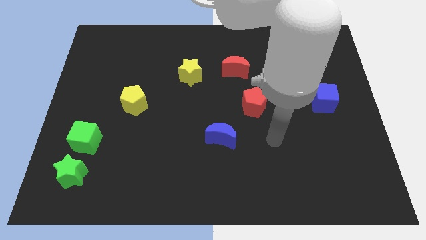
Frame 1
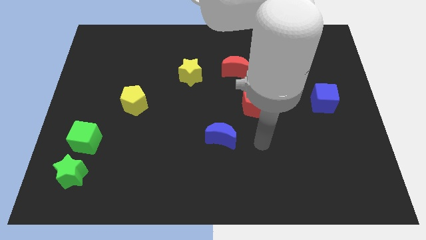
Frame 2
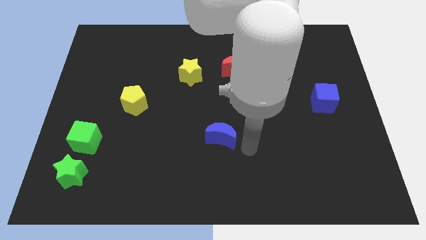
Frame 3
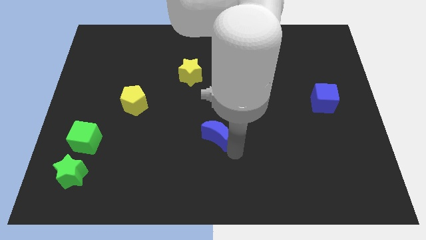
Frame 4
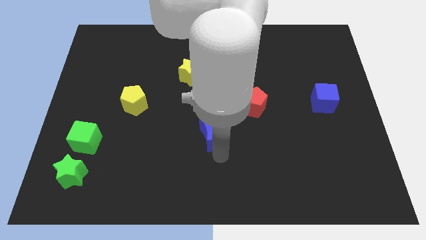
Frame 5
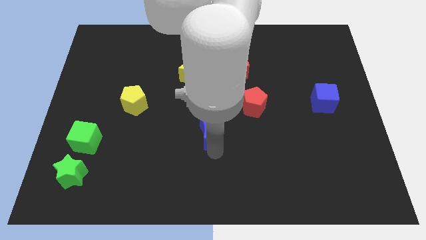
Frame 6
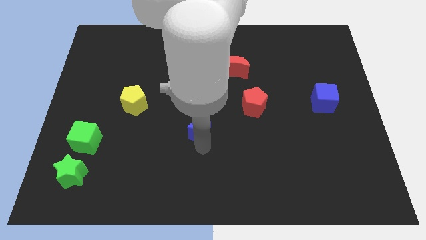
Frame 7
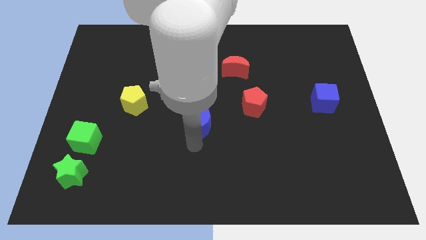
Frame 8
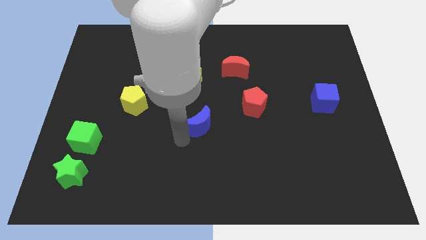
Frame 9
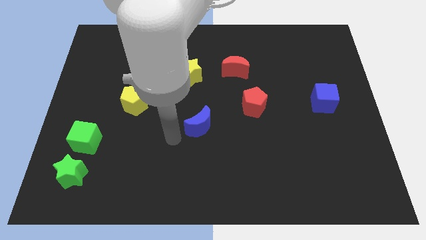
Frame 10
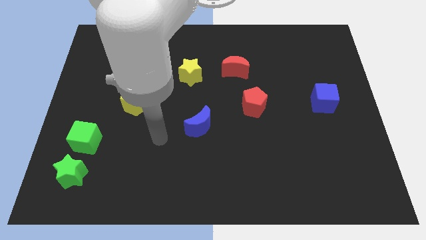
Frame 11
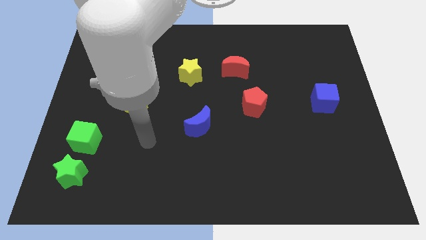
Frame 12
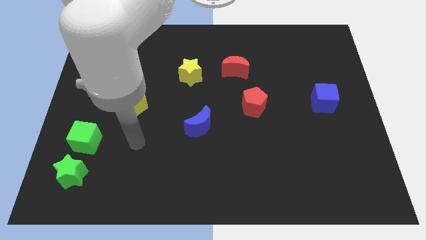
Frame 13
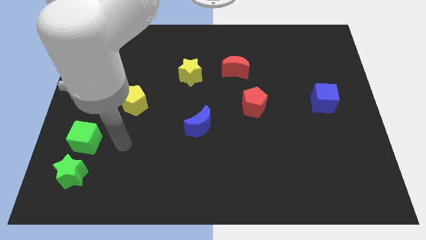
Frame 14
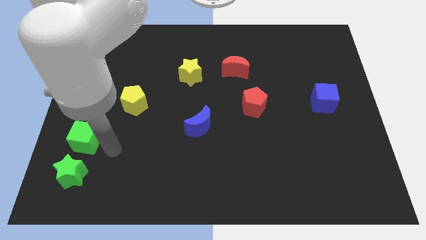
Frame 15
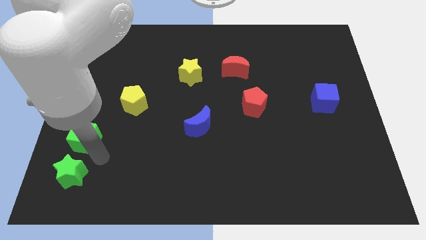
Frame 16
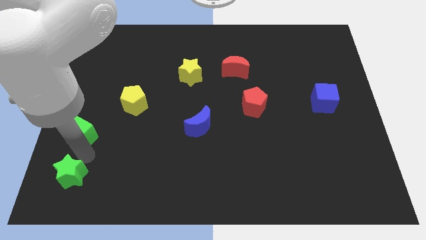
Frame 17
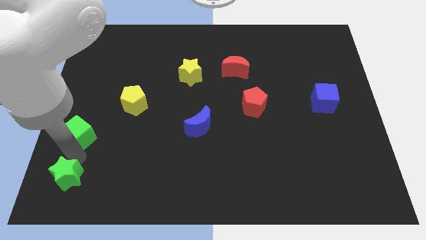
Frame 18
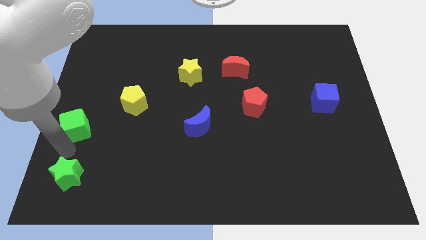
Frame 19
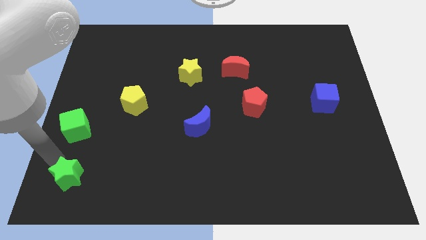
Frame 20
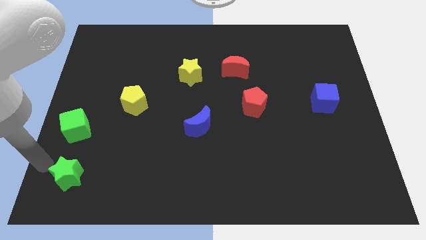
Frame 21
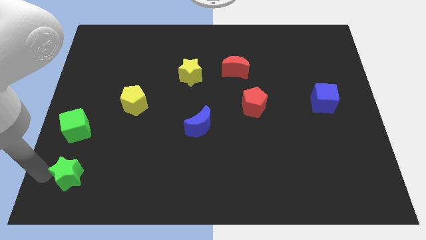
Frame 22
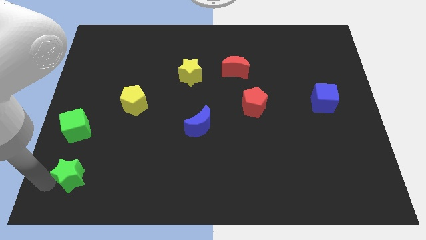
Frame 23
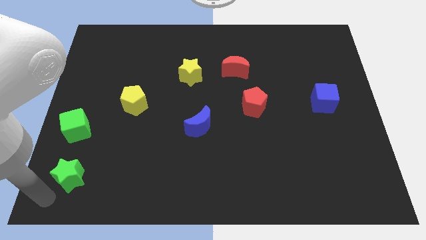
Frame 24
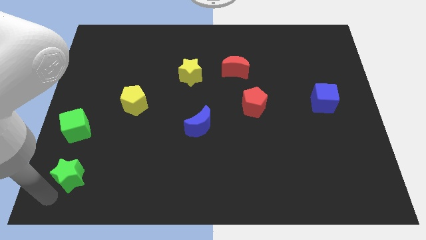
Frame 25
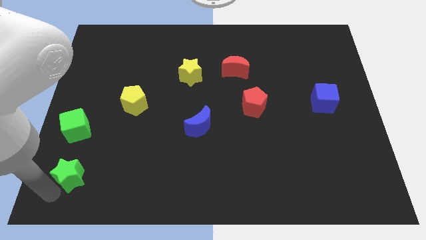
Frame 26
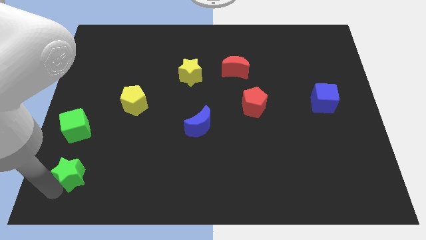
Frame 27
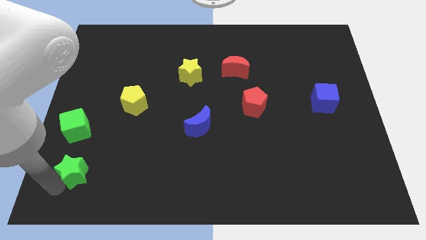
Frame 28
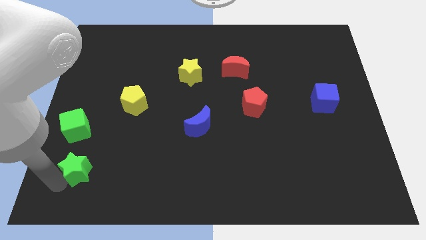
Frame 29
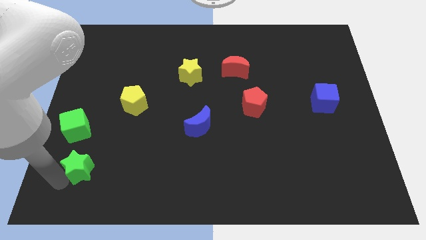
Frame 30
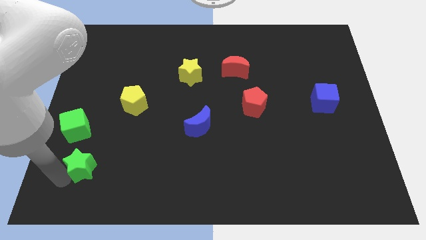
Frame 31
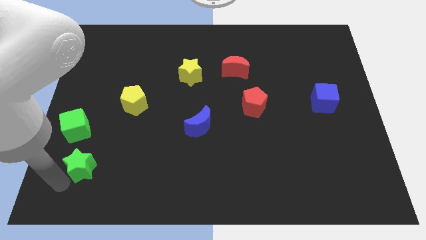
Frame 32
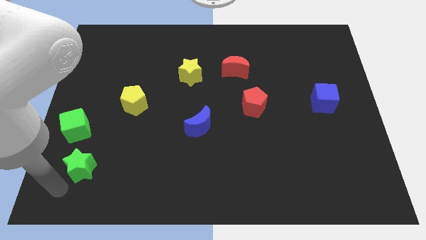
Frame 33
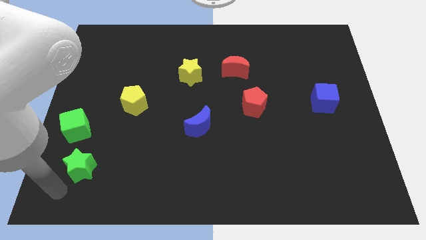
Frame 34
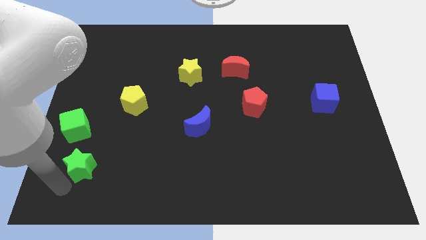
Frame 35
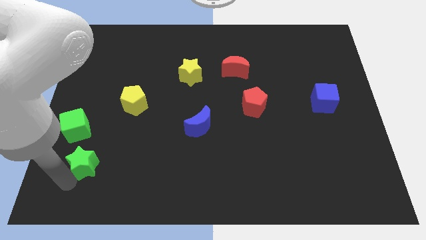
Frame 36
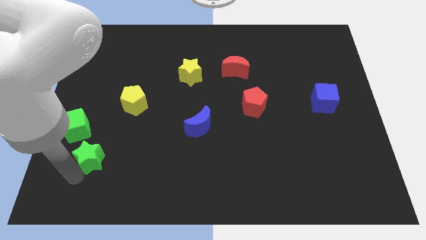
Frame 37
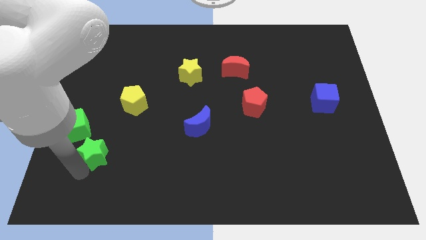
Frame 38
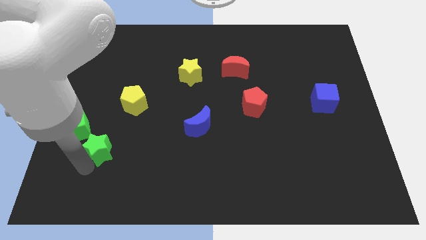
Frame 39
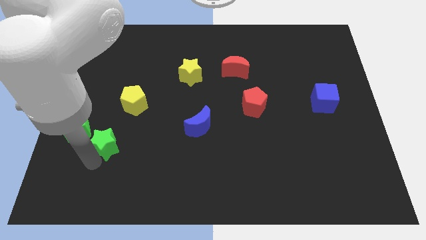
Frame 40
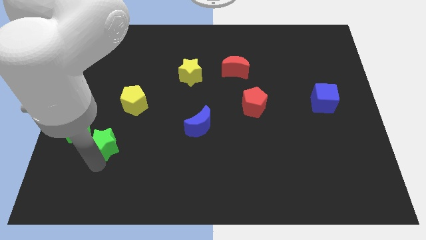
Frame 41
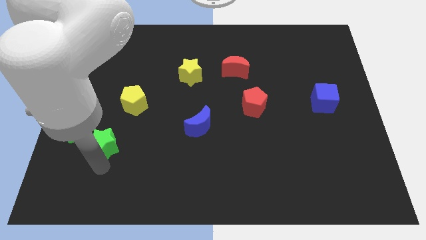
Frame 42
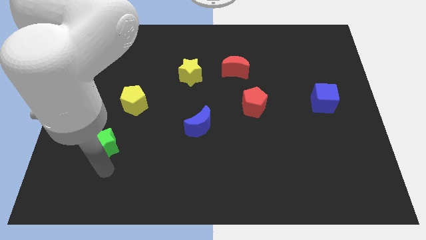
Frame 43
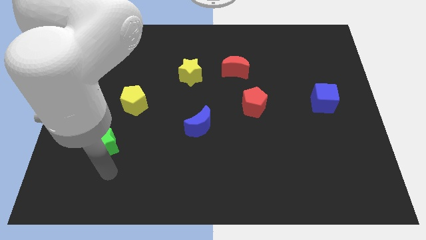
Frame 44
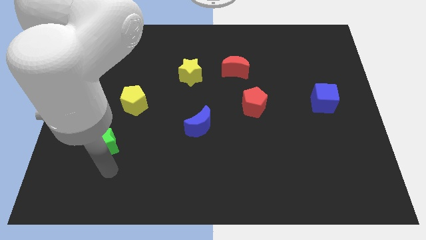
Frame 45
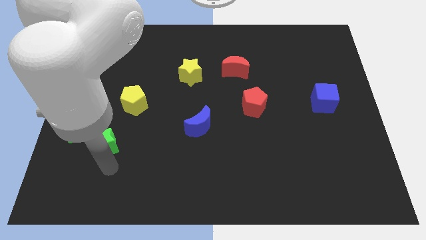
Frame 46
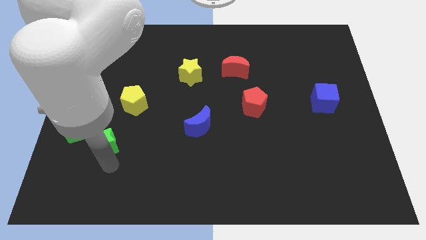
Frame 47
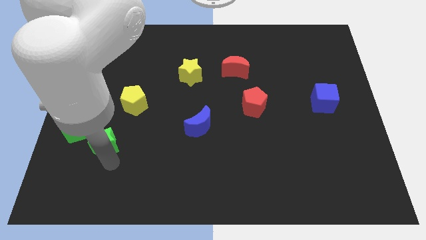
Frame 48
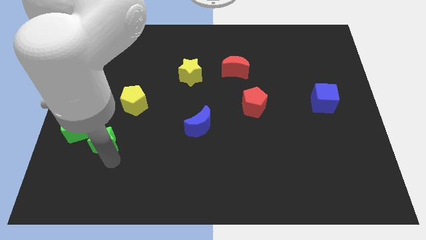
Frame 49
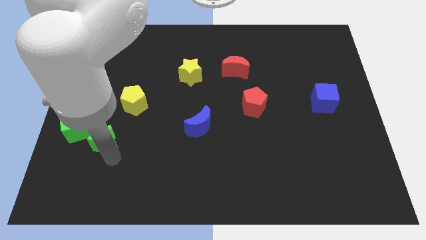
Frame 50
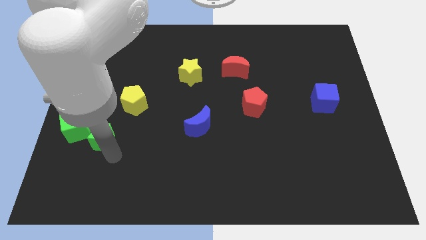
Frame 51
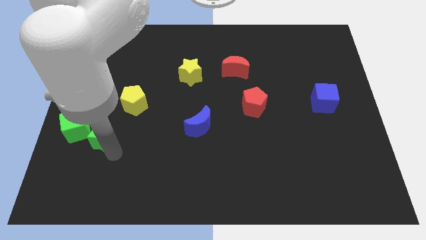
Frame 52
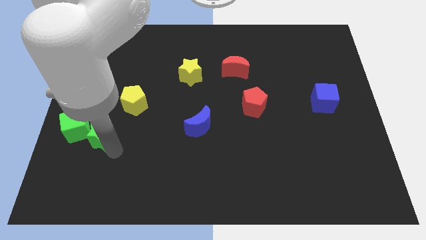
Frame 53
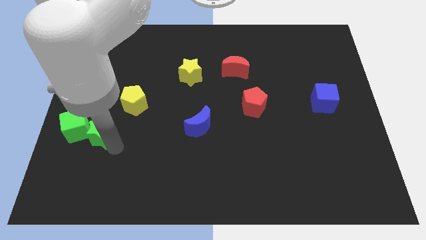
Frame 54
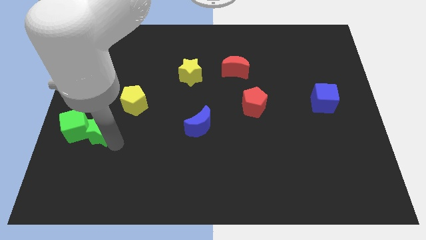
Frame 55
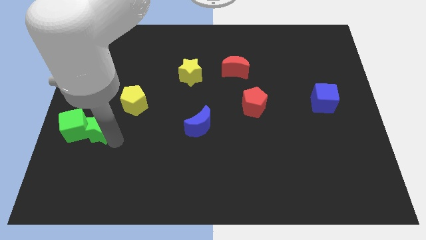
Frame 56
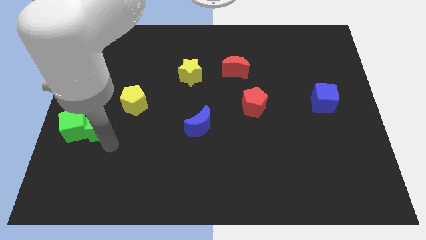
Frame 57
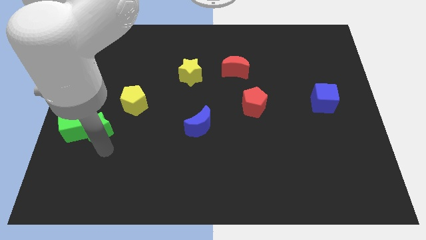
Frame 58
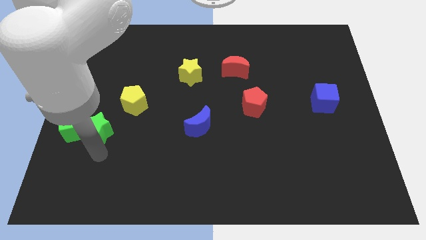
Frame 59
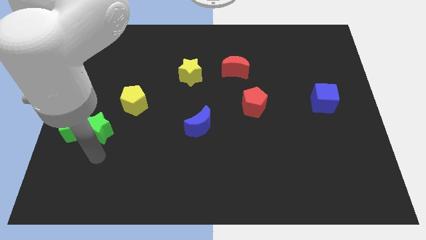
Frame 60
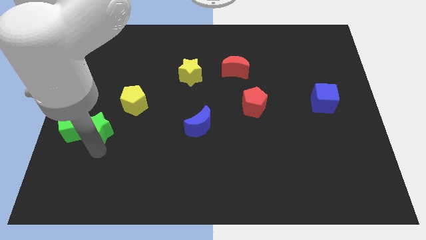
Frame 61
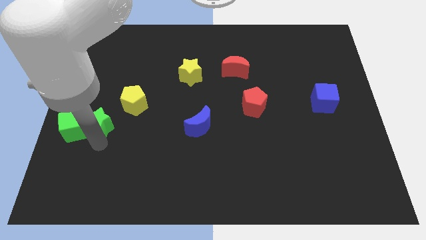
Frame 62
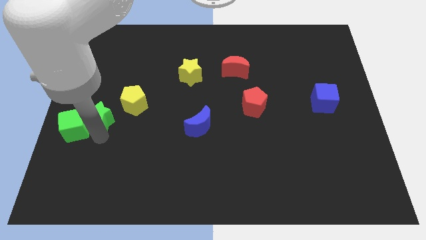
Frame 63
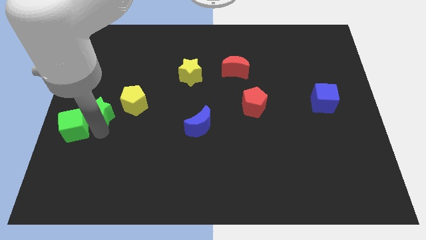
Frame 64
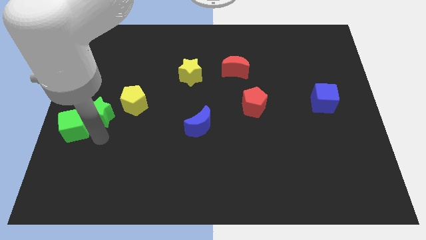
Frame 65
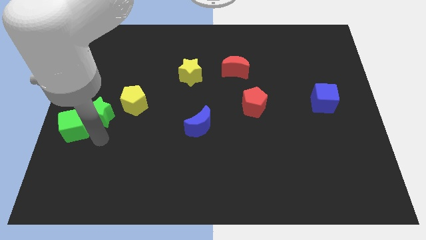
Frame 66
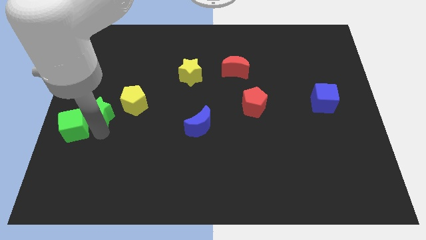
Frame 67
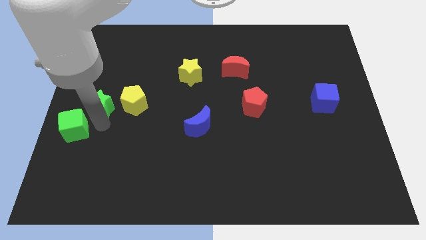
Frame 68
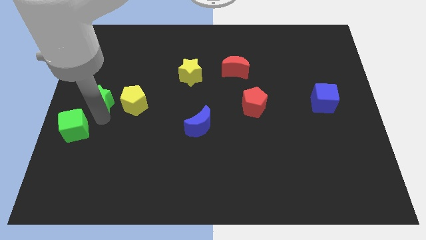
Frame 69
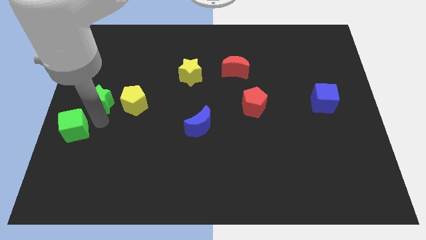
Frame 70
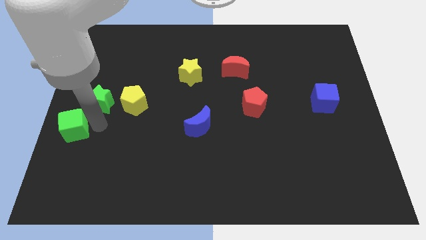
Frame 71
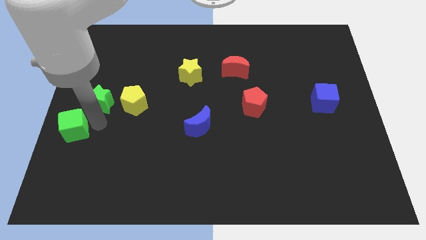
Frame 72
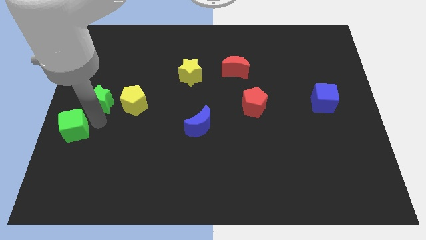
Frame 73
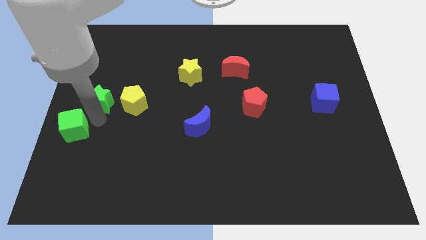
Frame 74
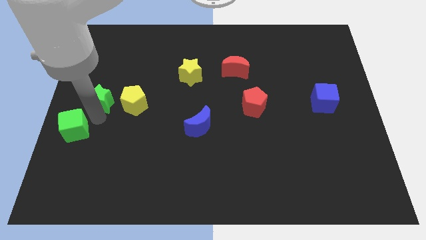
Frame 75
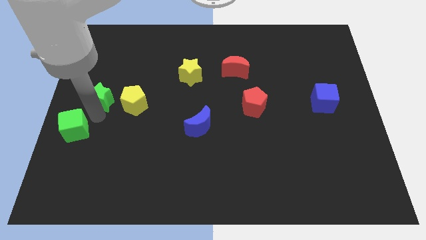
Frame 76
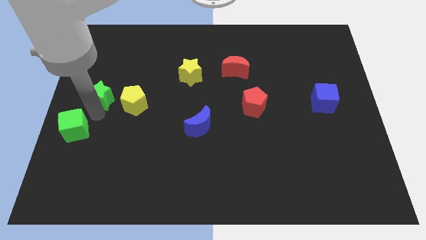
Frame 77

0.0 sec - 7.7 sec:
slide the green star up

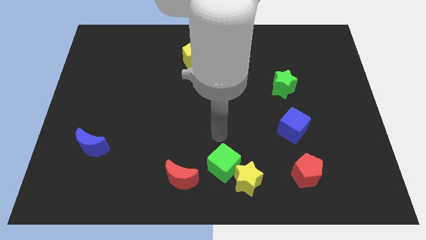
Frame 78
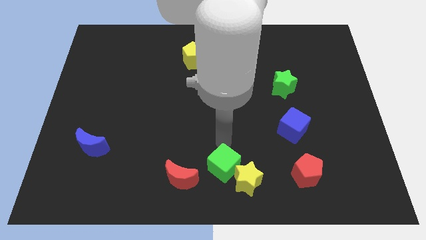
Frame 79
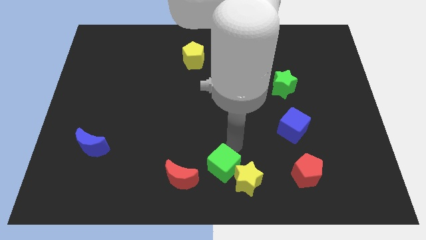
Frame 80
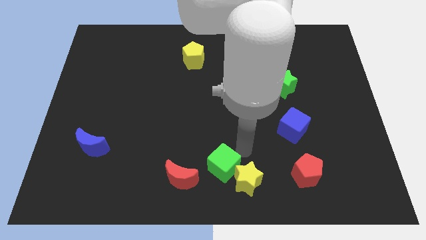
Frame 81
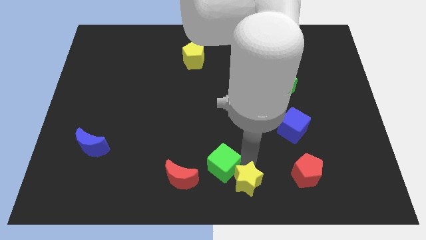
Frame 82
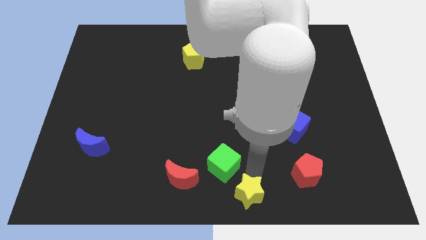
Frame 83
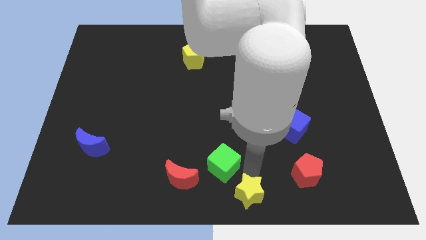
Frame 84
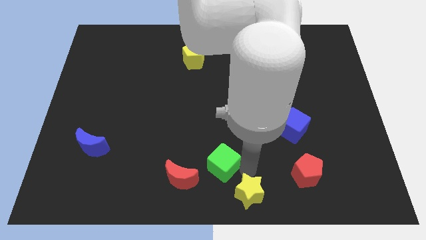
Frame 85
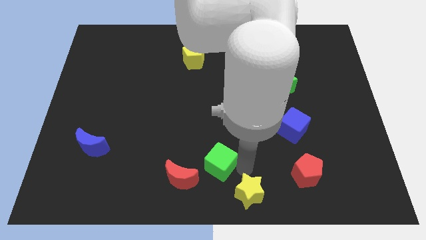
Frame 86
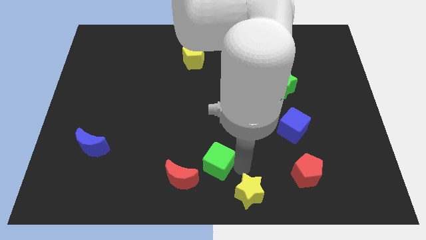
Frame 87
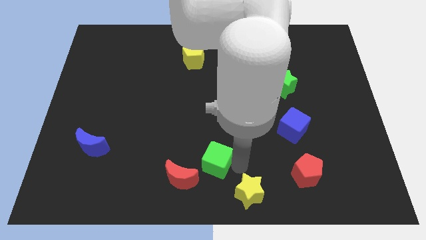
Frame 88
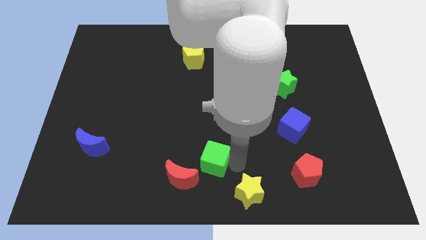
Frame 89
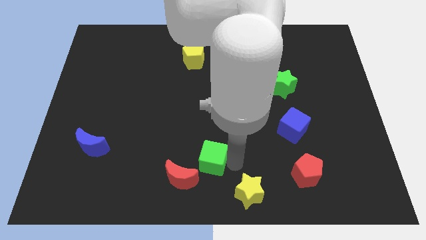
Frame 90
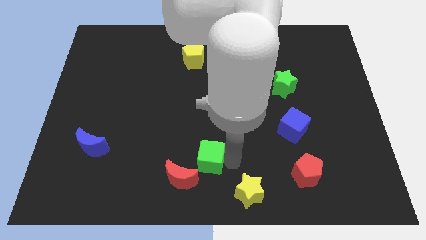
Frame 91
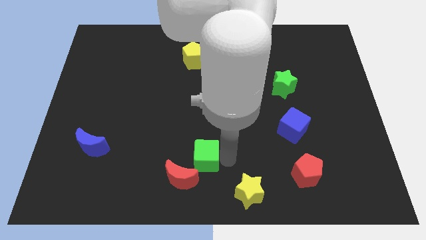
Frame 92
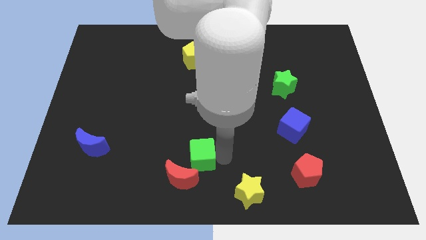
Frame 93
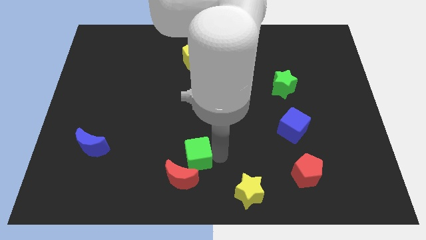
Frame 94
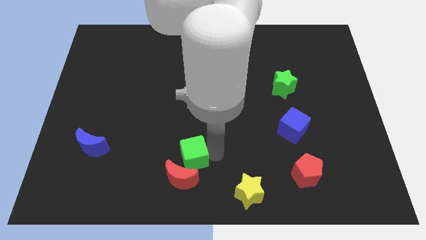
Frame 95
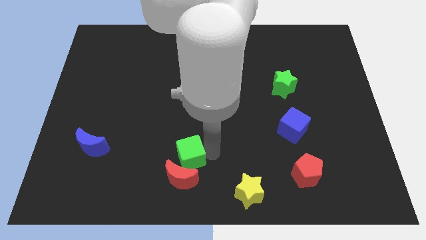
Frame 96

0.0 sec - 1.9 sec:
slightly slide the green cube left
